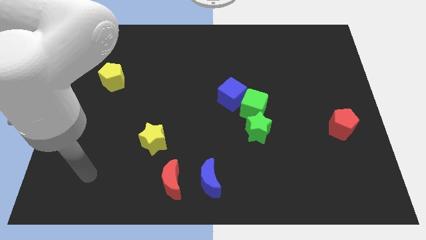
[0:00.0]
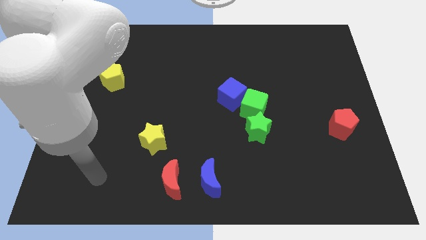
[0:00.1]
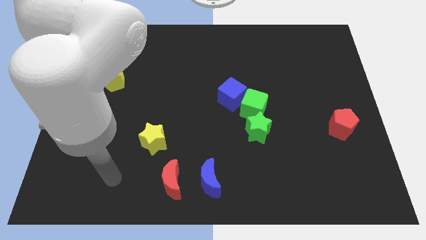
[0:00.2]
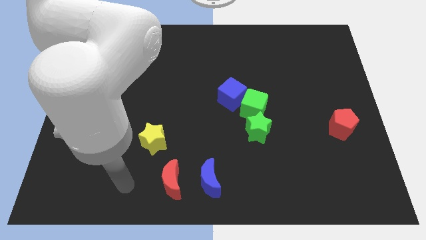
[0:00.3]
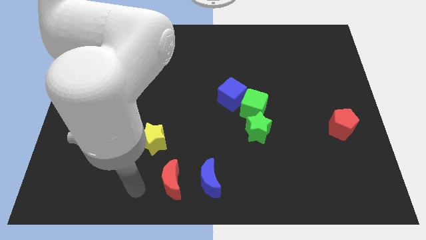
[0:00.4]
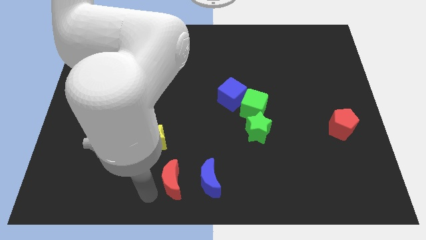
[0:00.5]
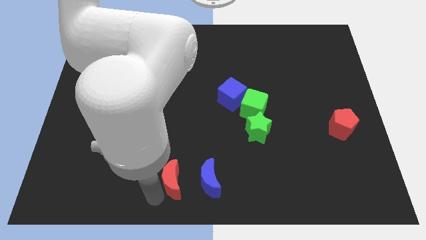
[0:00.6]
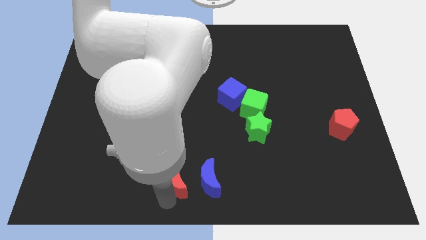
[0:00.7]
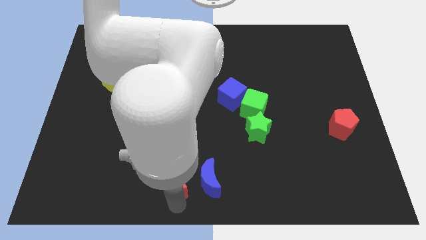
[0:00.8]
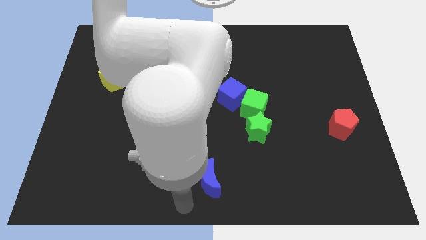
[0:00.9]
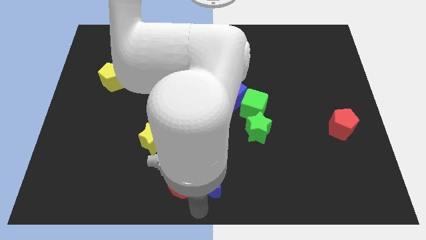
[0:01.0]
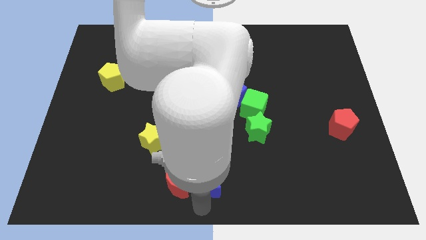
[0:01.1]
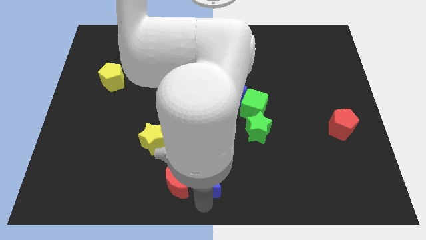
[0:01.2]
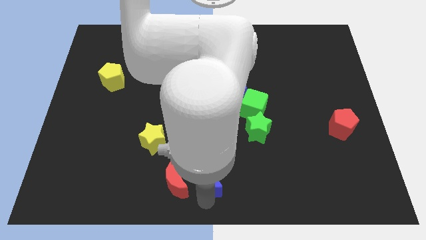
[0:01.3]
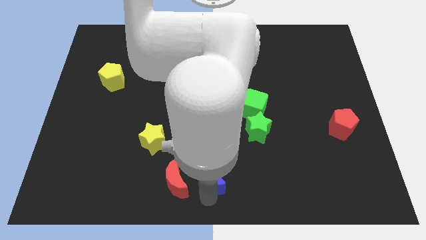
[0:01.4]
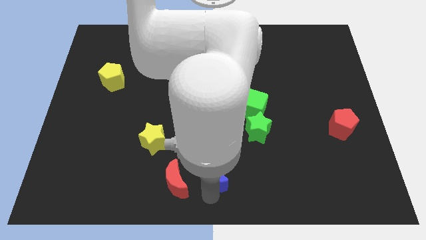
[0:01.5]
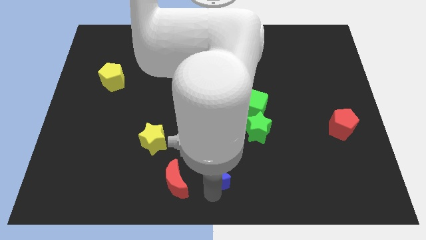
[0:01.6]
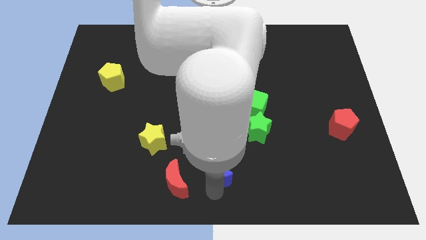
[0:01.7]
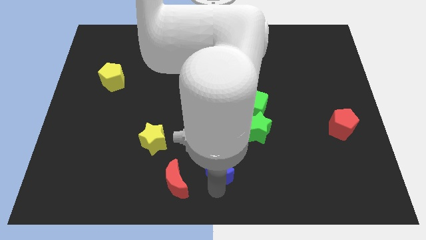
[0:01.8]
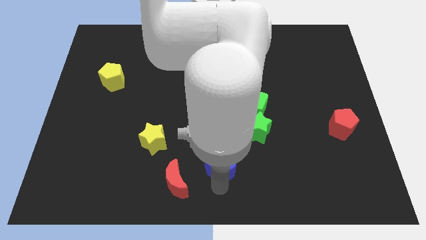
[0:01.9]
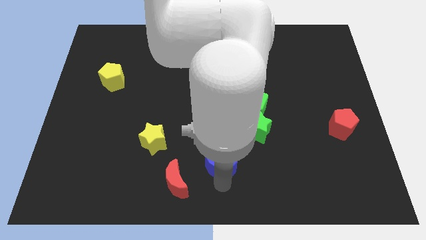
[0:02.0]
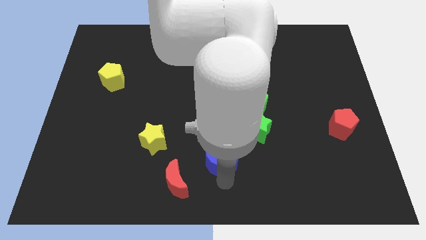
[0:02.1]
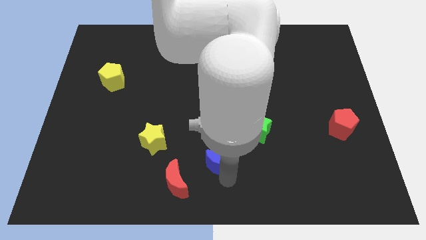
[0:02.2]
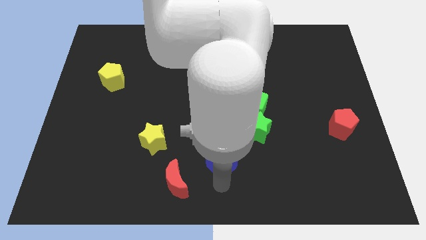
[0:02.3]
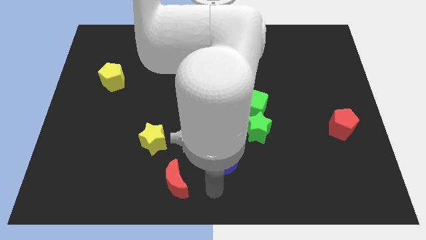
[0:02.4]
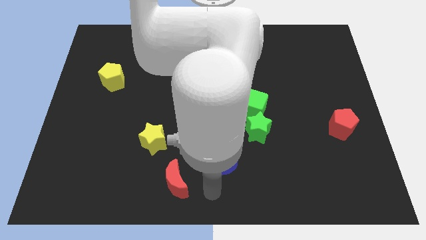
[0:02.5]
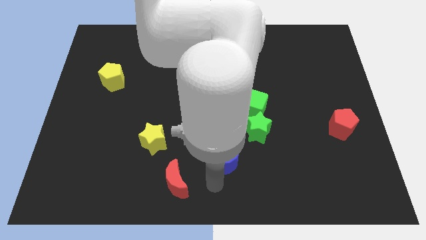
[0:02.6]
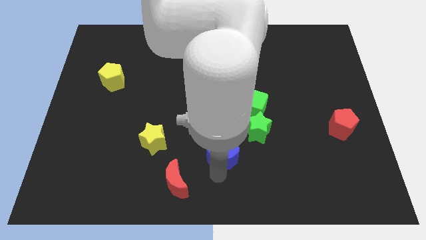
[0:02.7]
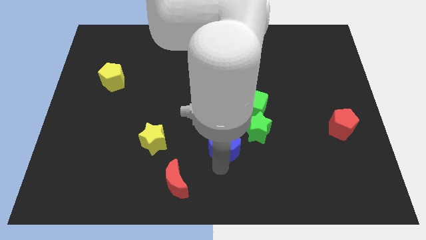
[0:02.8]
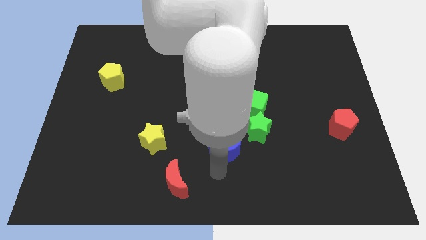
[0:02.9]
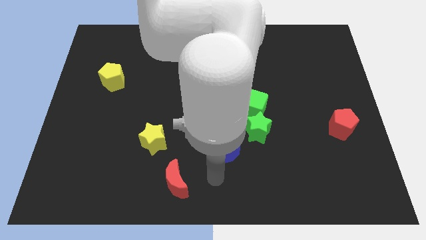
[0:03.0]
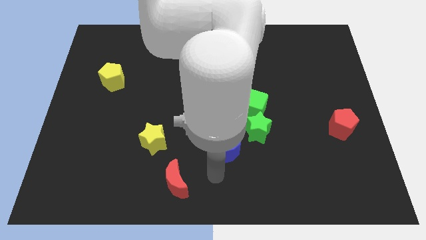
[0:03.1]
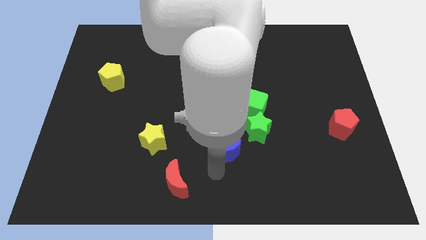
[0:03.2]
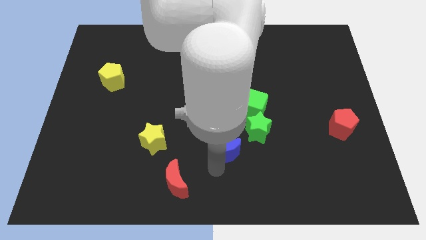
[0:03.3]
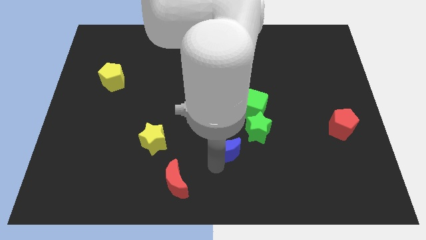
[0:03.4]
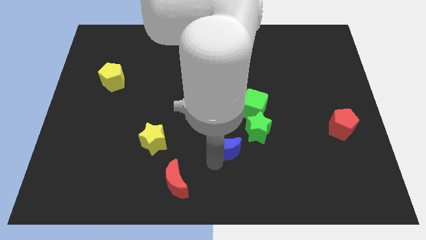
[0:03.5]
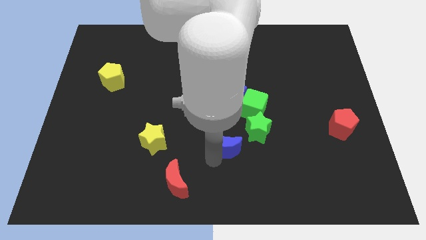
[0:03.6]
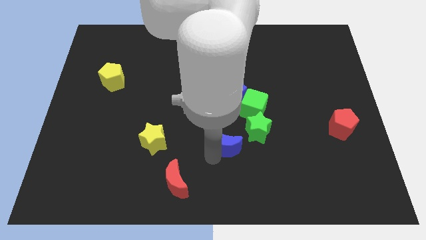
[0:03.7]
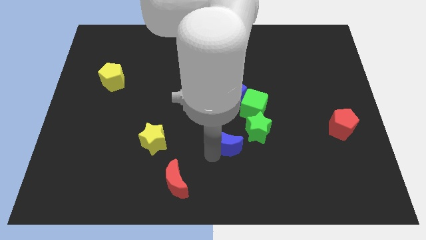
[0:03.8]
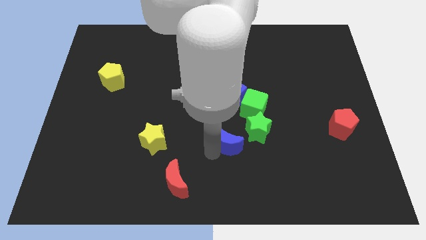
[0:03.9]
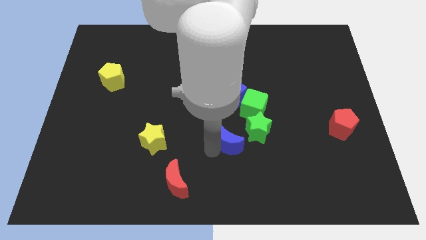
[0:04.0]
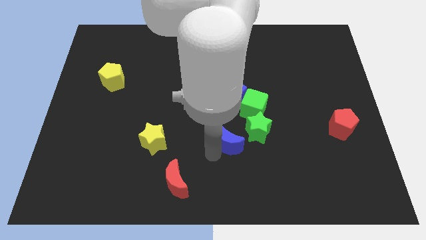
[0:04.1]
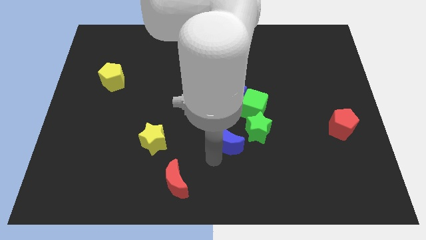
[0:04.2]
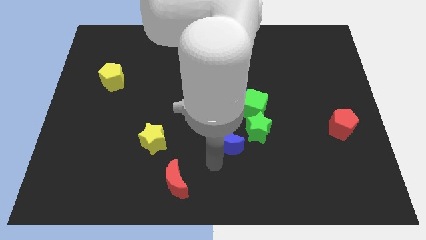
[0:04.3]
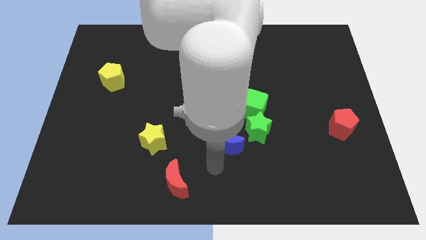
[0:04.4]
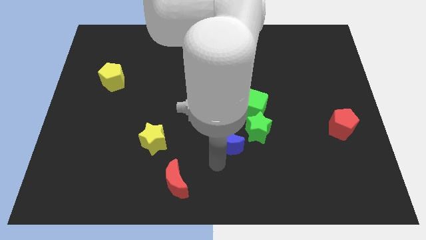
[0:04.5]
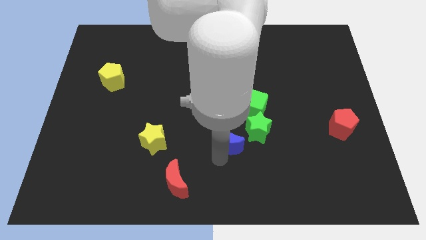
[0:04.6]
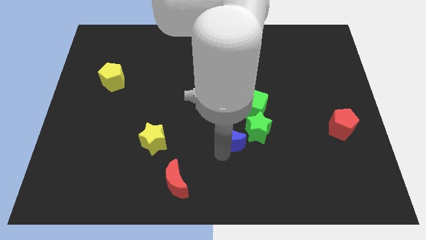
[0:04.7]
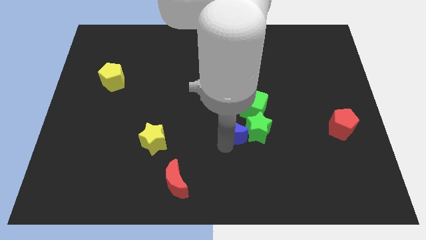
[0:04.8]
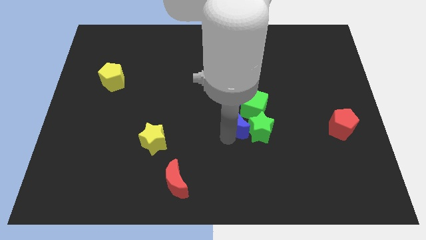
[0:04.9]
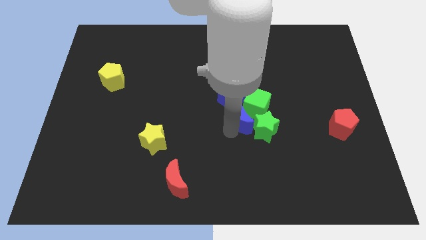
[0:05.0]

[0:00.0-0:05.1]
put the blue moon towards the green cube

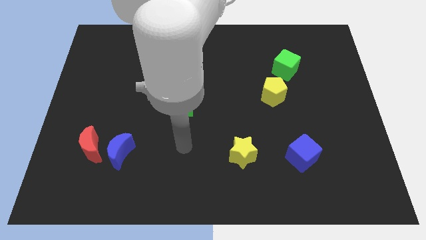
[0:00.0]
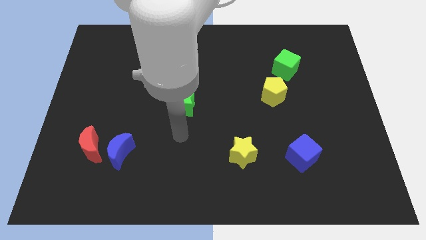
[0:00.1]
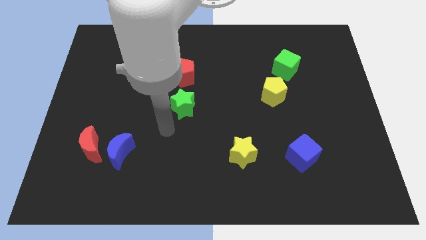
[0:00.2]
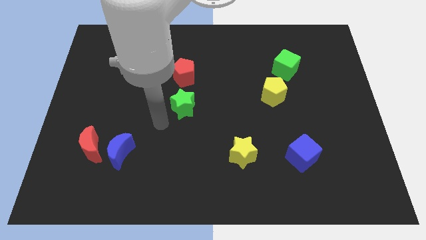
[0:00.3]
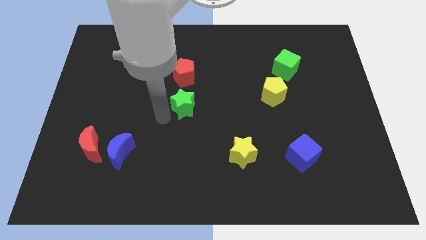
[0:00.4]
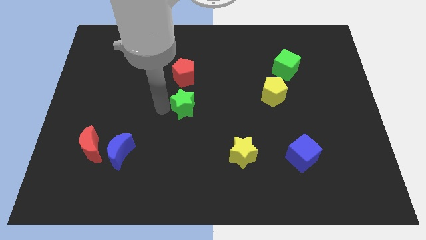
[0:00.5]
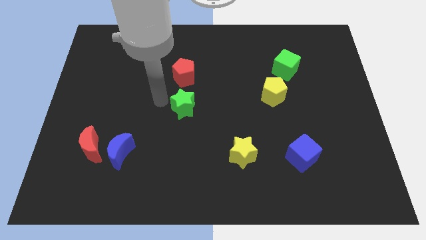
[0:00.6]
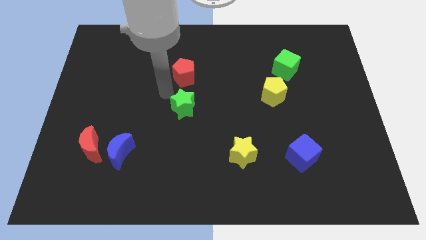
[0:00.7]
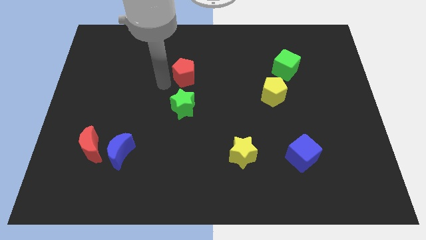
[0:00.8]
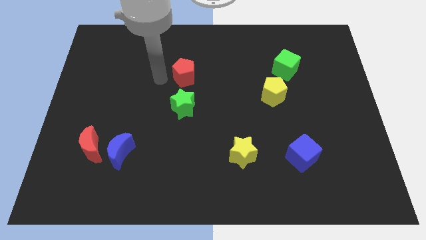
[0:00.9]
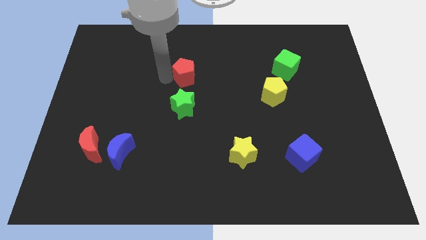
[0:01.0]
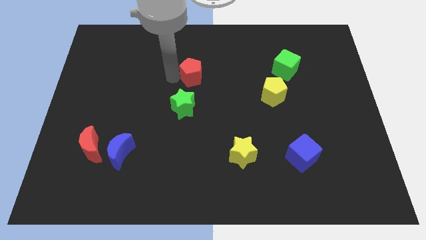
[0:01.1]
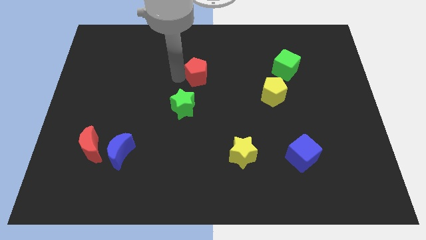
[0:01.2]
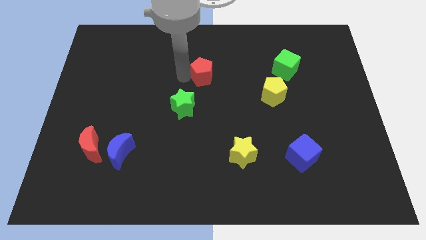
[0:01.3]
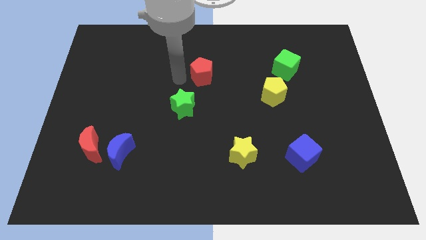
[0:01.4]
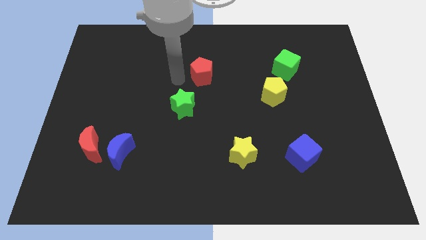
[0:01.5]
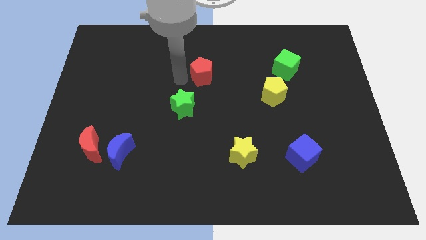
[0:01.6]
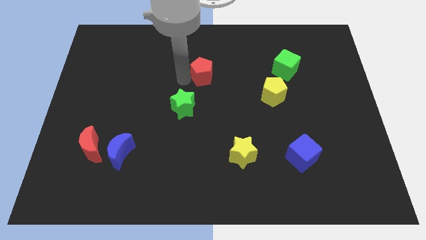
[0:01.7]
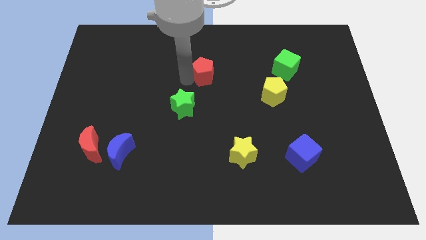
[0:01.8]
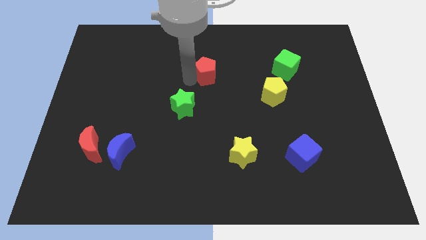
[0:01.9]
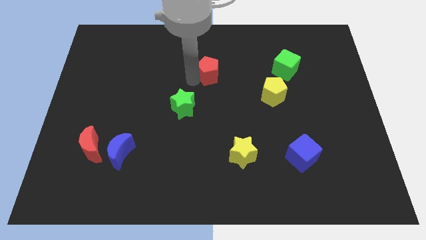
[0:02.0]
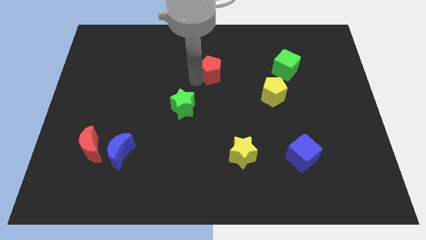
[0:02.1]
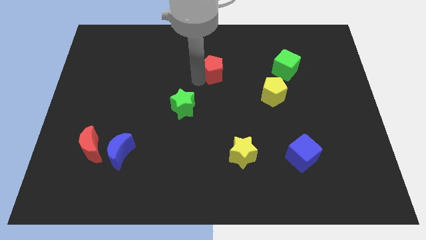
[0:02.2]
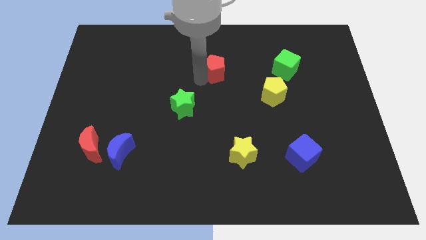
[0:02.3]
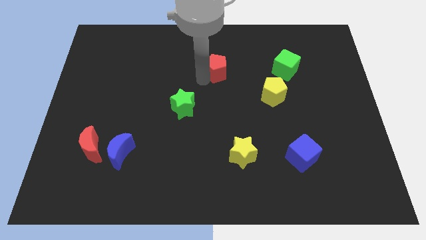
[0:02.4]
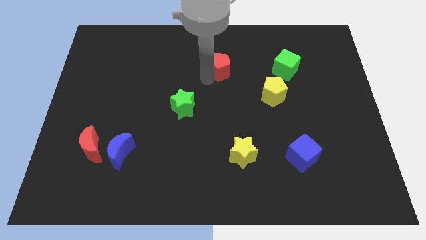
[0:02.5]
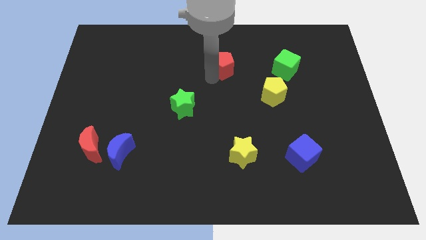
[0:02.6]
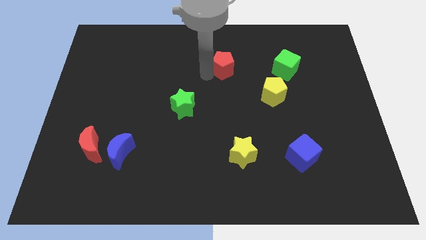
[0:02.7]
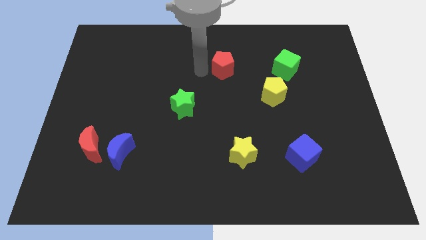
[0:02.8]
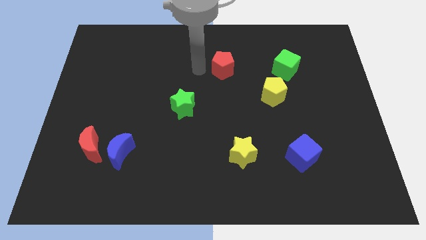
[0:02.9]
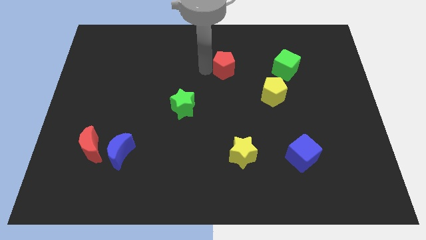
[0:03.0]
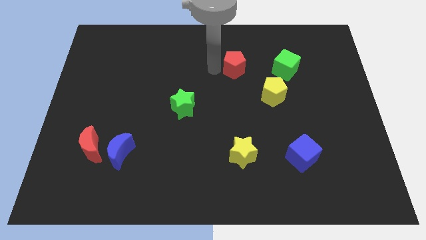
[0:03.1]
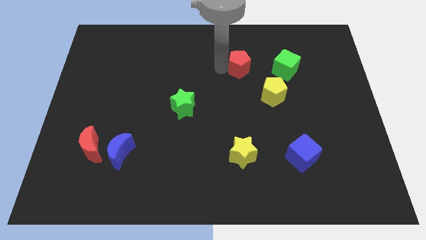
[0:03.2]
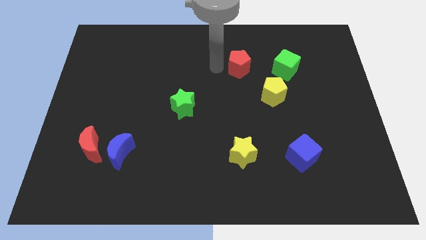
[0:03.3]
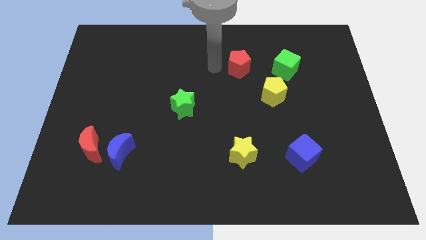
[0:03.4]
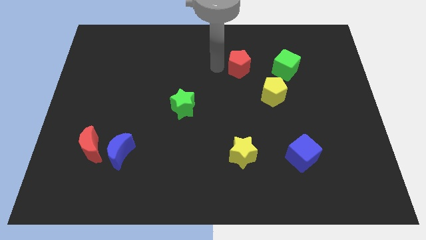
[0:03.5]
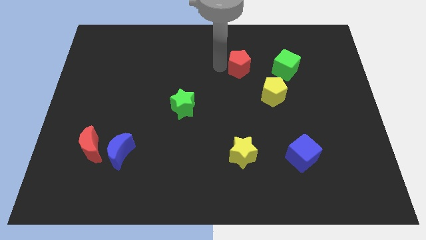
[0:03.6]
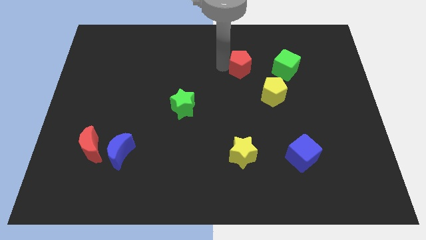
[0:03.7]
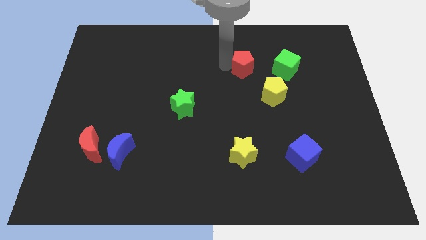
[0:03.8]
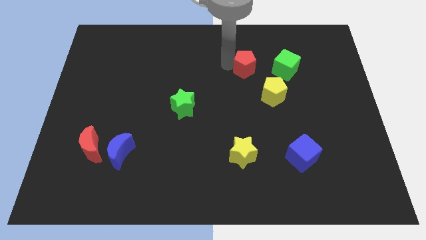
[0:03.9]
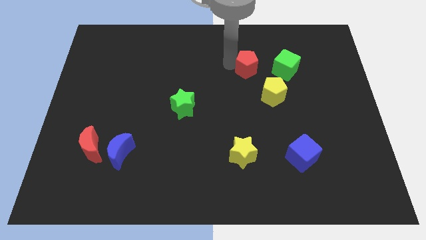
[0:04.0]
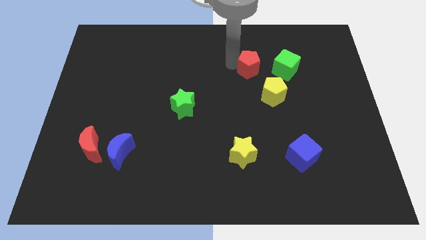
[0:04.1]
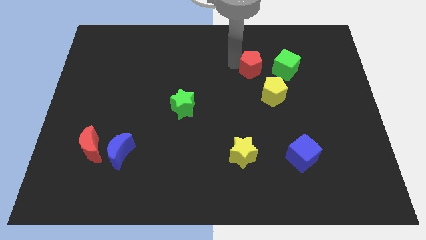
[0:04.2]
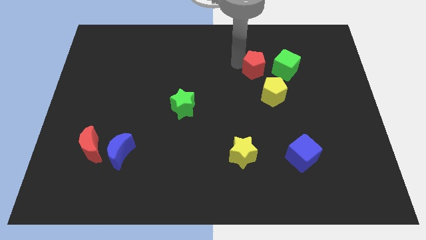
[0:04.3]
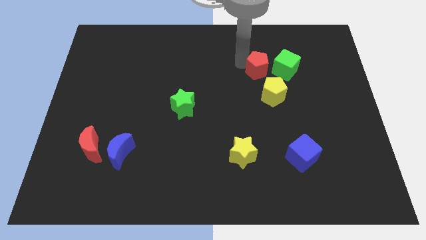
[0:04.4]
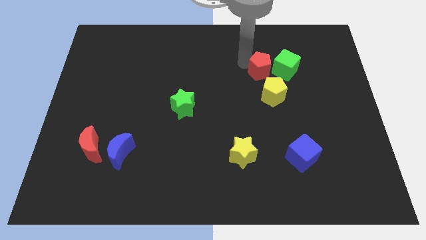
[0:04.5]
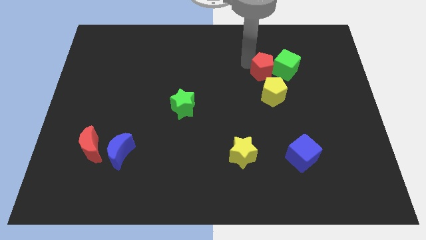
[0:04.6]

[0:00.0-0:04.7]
move the red pentagon next to the green cube
